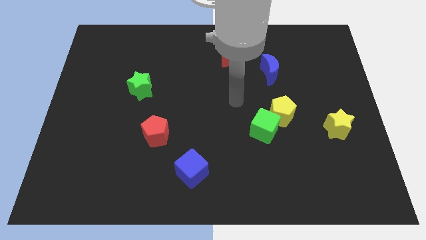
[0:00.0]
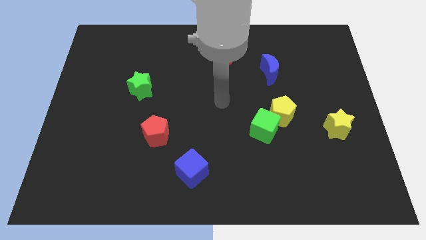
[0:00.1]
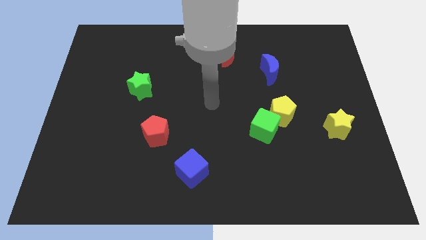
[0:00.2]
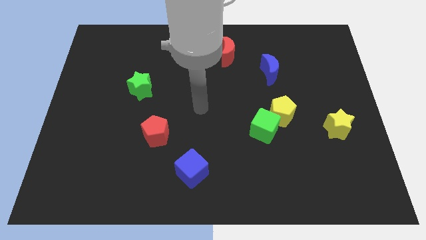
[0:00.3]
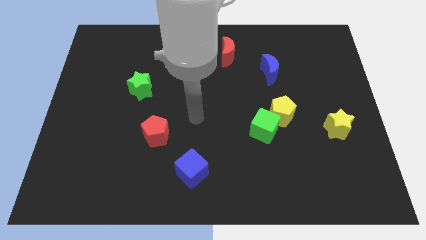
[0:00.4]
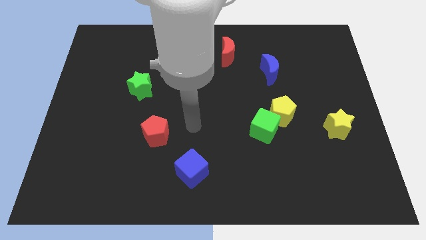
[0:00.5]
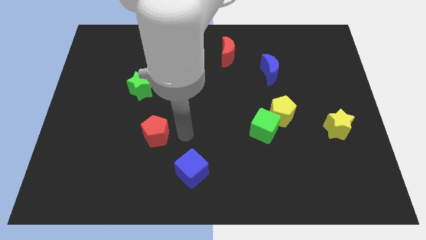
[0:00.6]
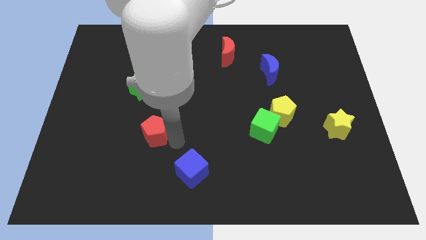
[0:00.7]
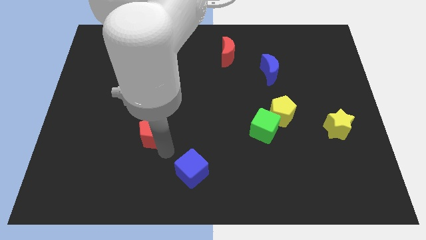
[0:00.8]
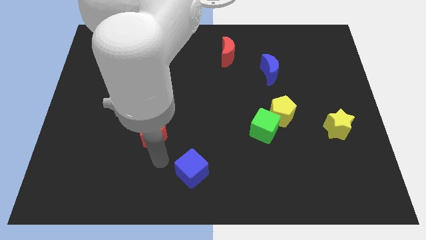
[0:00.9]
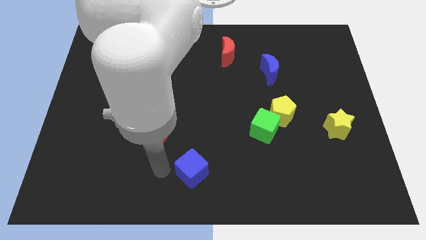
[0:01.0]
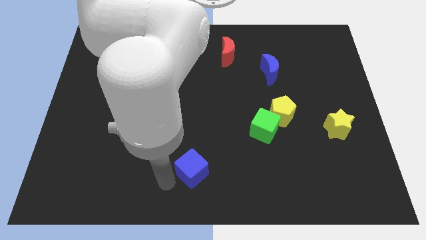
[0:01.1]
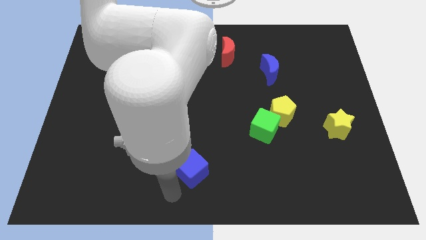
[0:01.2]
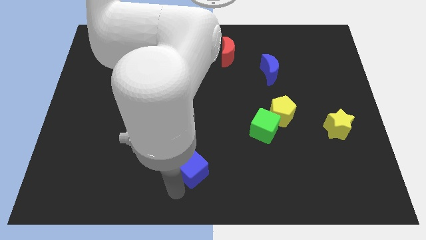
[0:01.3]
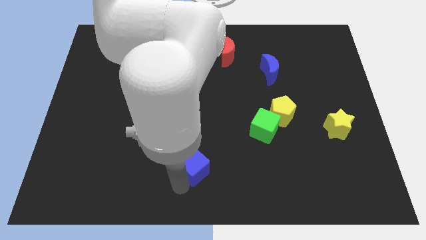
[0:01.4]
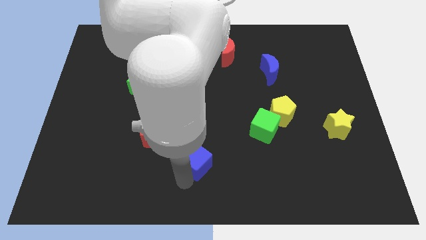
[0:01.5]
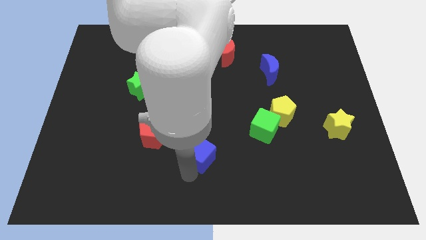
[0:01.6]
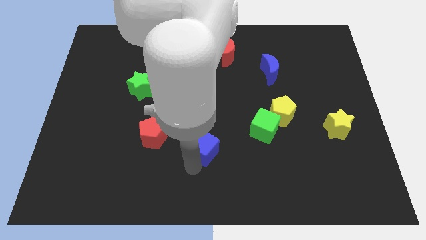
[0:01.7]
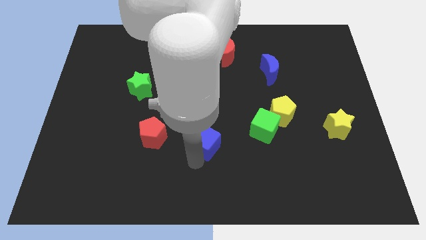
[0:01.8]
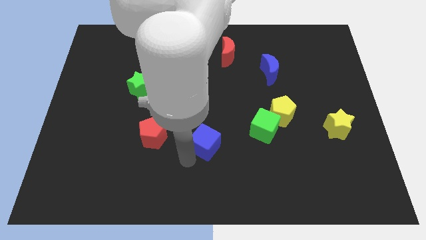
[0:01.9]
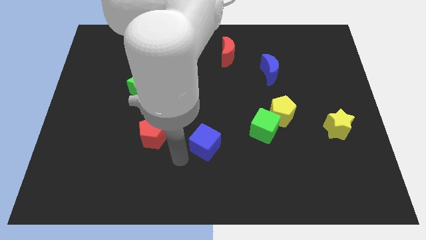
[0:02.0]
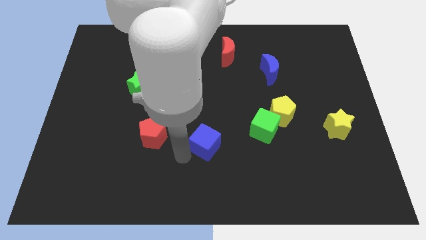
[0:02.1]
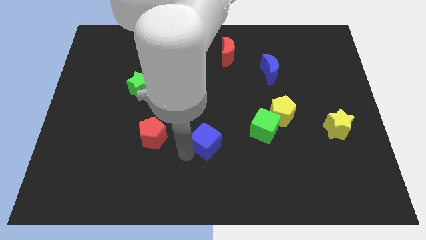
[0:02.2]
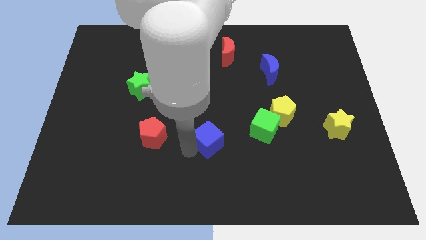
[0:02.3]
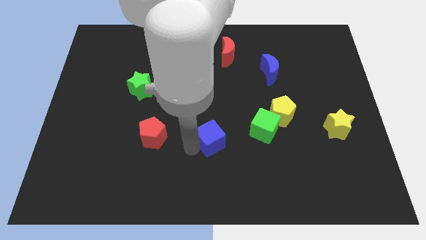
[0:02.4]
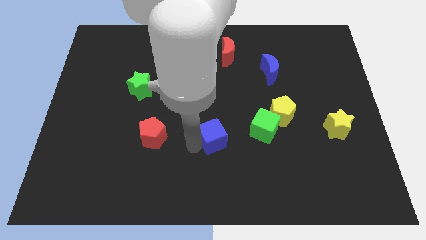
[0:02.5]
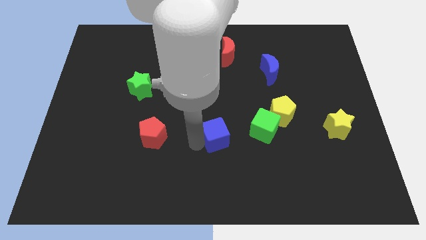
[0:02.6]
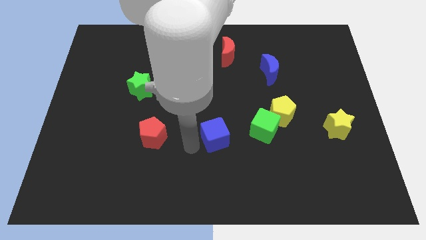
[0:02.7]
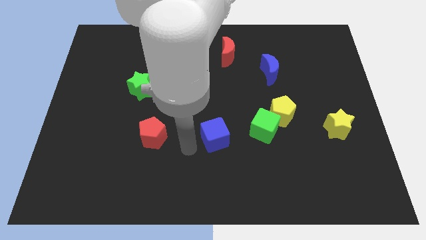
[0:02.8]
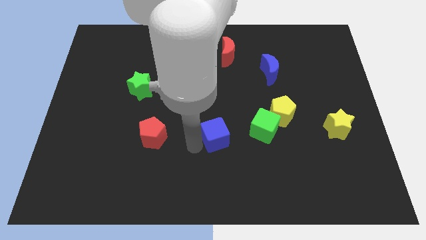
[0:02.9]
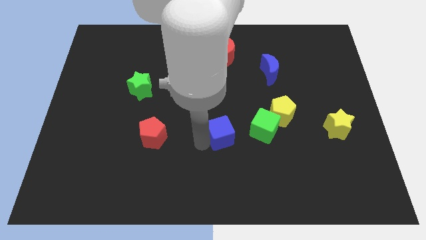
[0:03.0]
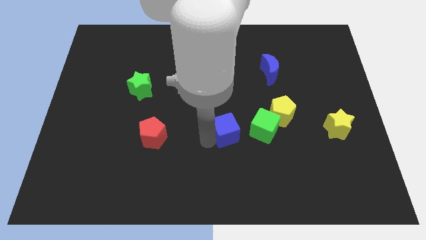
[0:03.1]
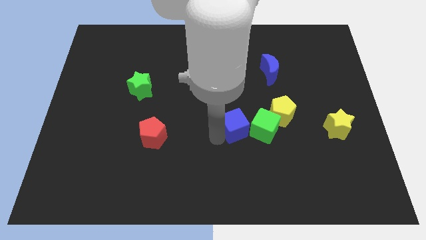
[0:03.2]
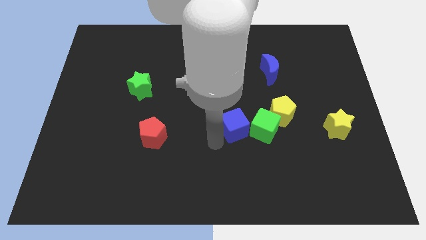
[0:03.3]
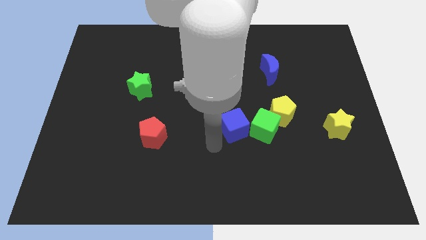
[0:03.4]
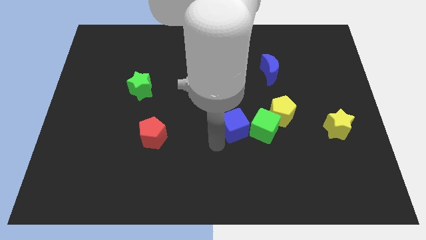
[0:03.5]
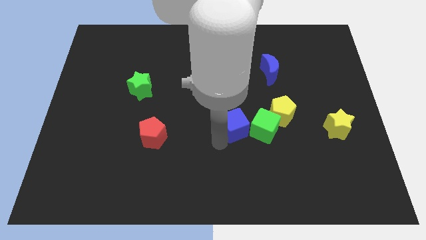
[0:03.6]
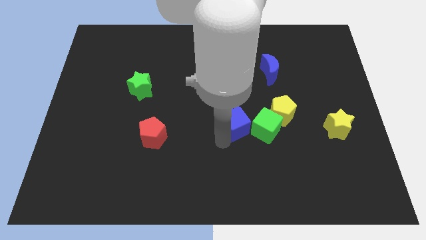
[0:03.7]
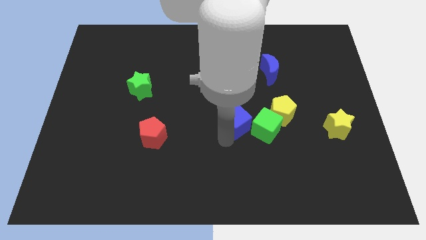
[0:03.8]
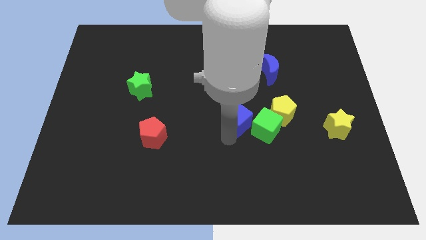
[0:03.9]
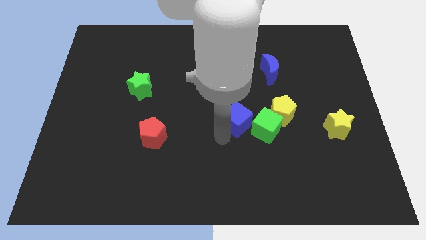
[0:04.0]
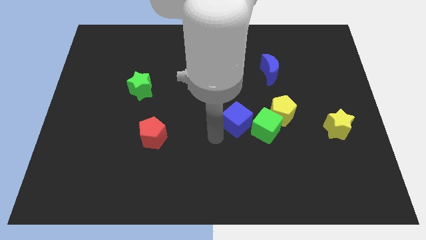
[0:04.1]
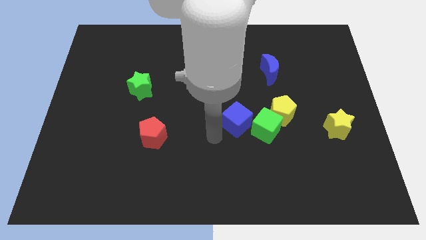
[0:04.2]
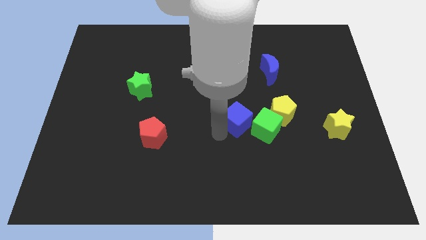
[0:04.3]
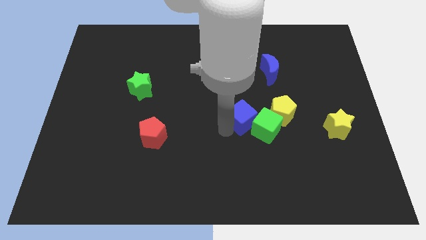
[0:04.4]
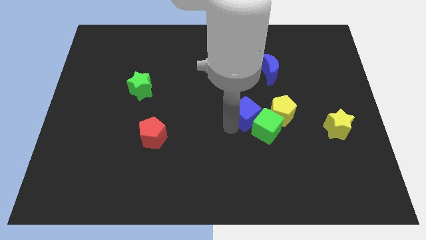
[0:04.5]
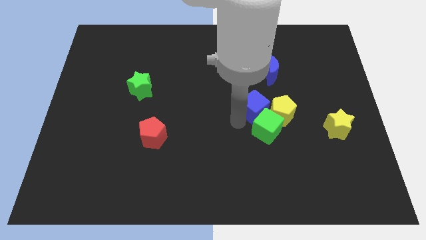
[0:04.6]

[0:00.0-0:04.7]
move the blue cube up and right

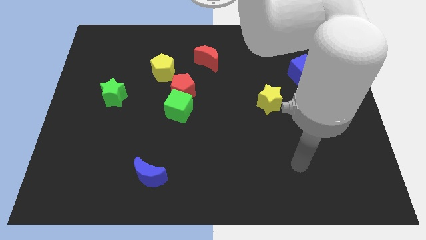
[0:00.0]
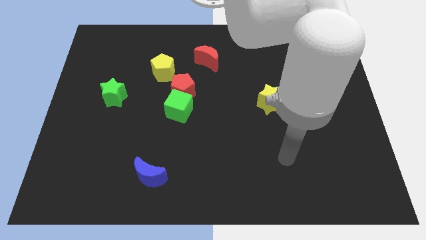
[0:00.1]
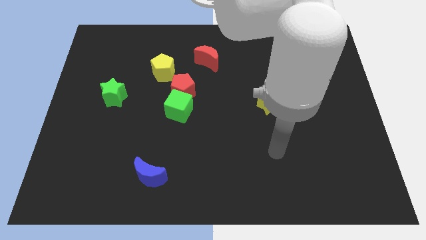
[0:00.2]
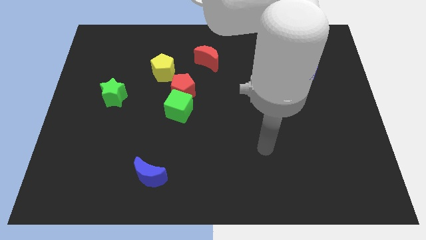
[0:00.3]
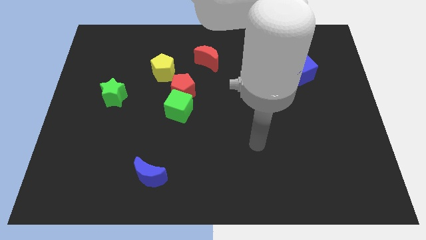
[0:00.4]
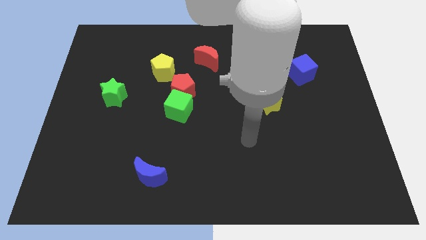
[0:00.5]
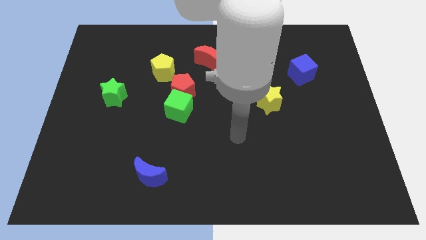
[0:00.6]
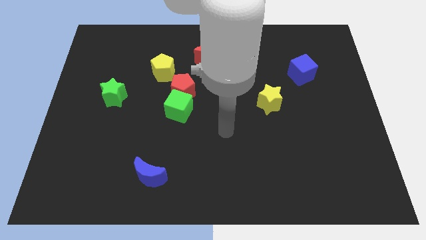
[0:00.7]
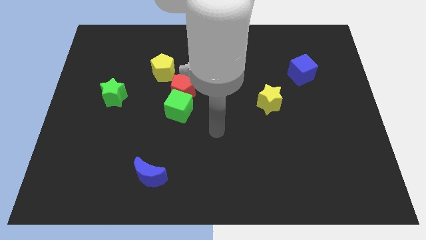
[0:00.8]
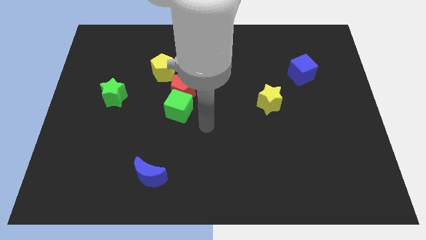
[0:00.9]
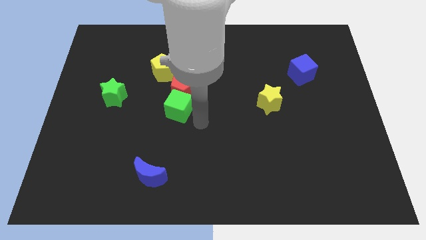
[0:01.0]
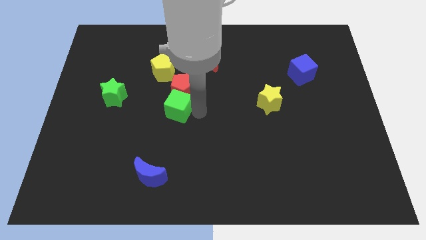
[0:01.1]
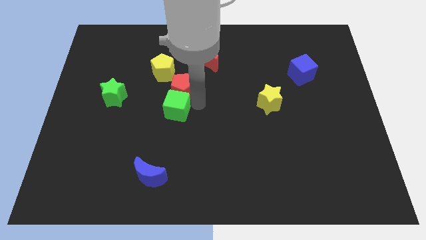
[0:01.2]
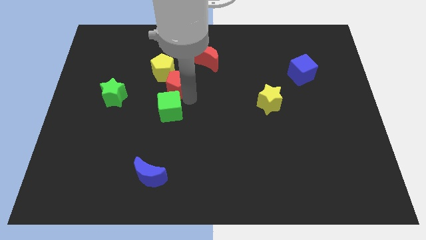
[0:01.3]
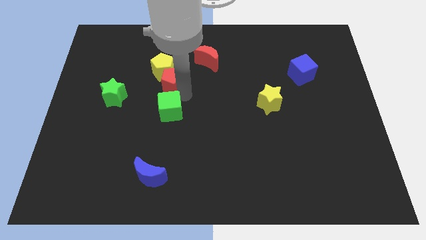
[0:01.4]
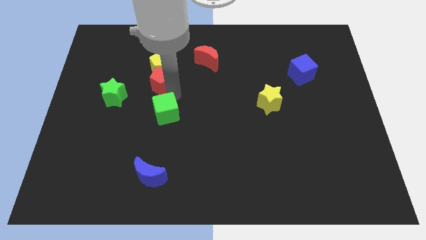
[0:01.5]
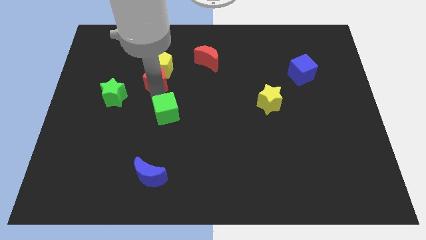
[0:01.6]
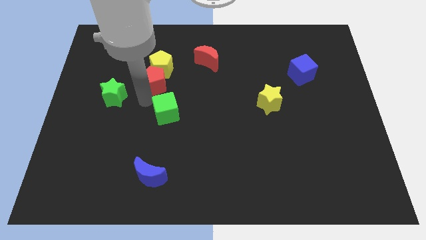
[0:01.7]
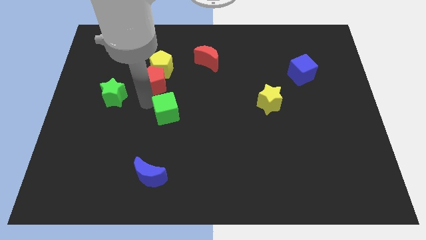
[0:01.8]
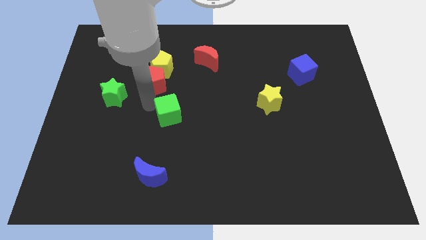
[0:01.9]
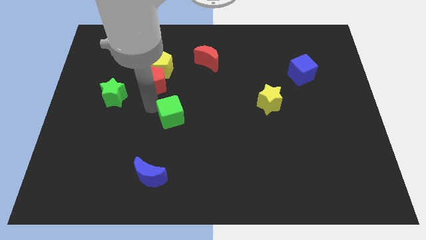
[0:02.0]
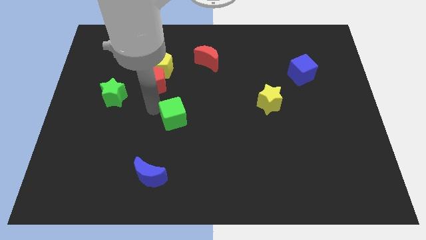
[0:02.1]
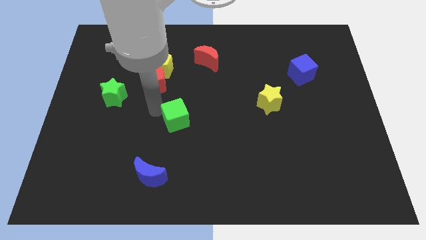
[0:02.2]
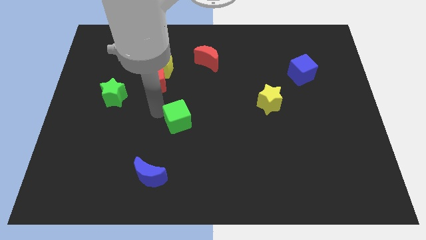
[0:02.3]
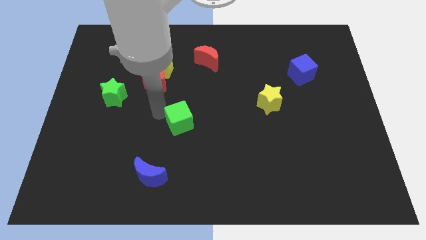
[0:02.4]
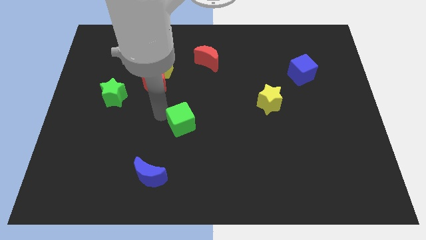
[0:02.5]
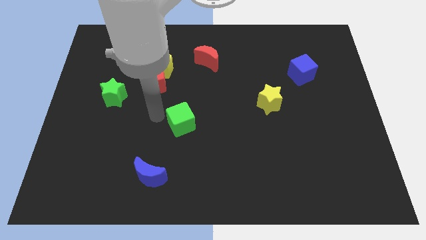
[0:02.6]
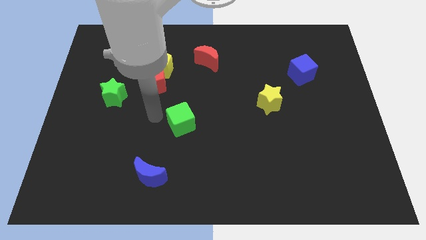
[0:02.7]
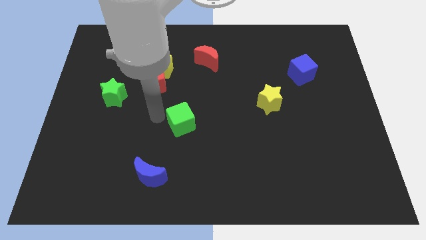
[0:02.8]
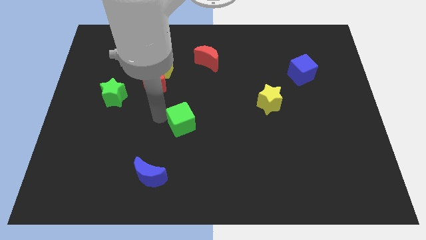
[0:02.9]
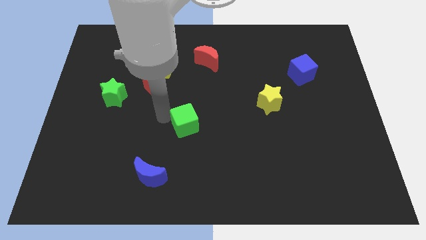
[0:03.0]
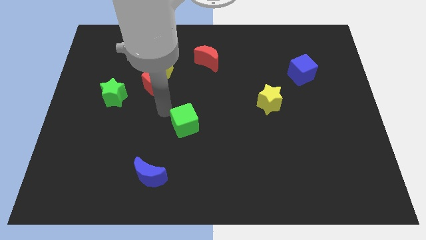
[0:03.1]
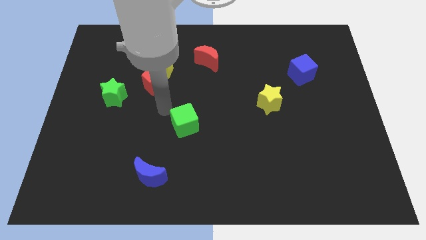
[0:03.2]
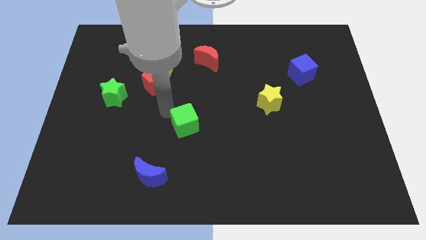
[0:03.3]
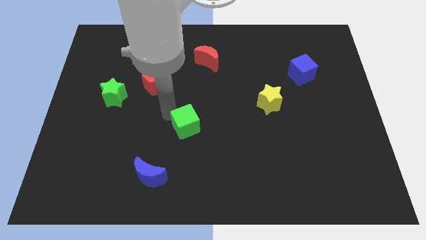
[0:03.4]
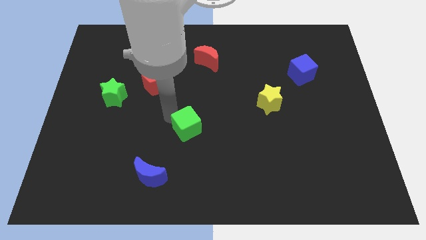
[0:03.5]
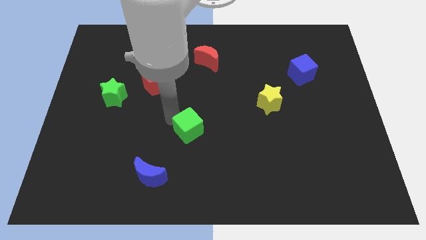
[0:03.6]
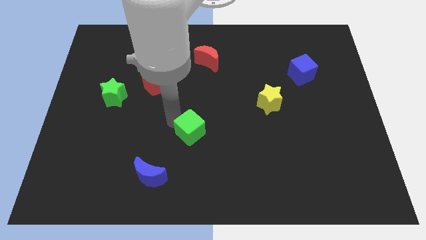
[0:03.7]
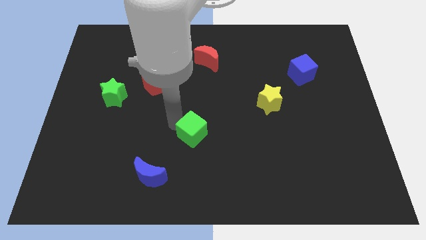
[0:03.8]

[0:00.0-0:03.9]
slide the green cube slightly down and to the right diagonally
